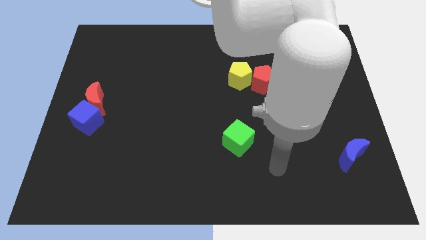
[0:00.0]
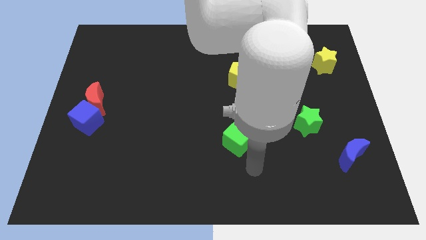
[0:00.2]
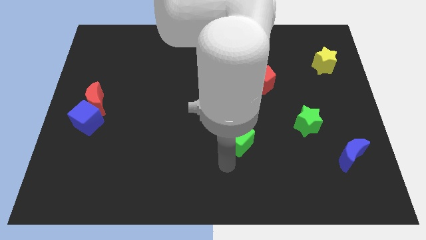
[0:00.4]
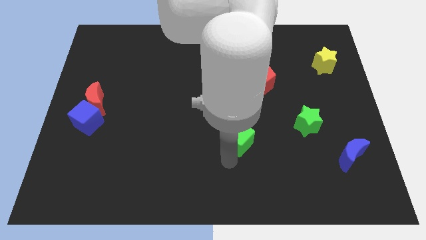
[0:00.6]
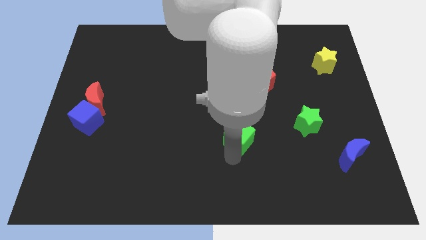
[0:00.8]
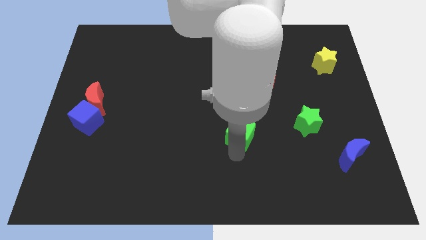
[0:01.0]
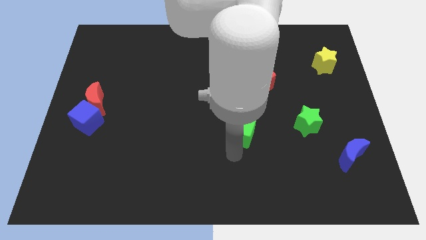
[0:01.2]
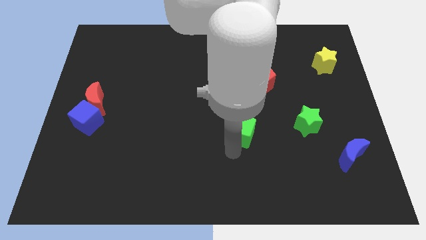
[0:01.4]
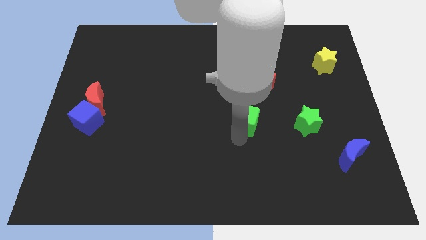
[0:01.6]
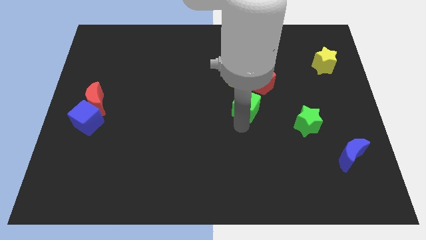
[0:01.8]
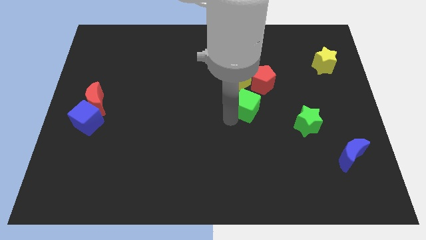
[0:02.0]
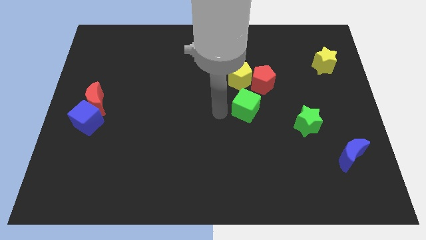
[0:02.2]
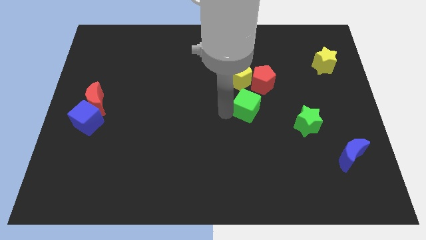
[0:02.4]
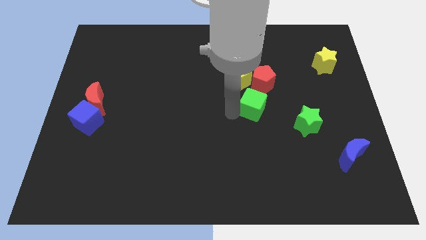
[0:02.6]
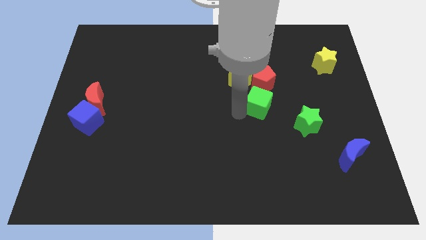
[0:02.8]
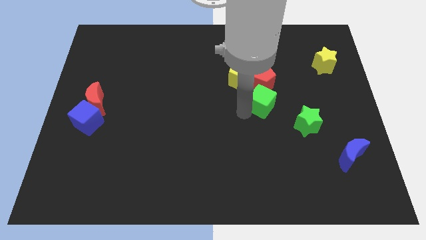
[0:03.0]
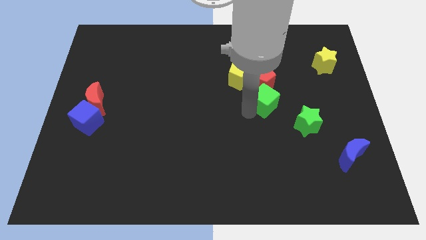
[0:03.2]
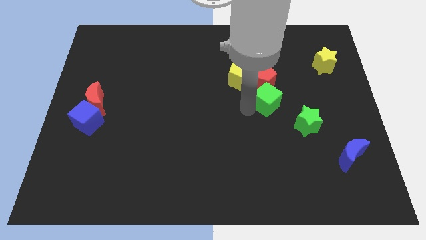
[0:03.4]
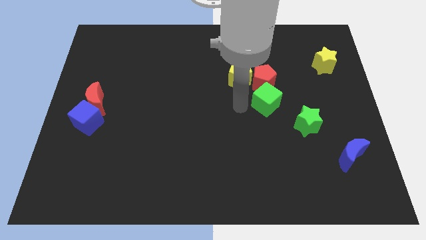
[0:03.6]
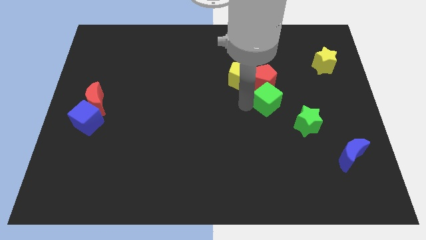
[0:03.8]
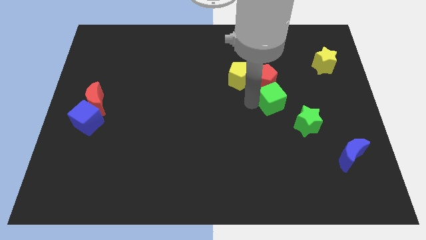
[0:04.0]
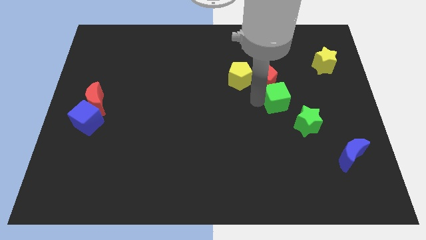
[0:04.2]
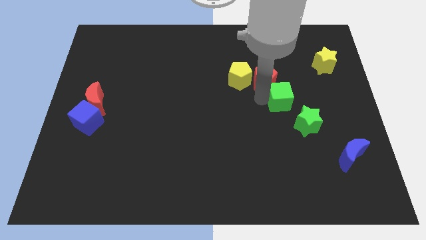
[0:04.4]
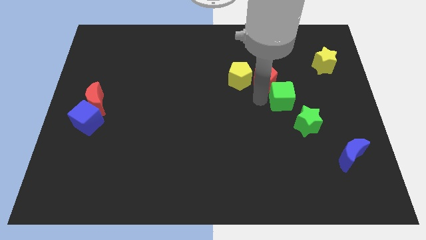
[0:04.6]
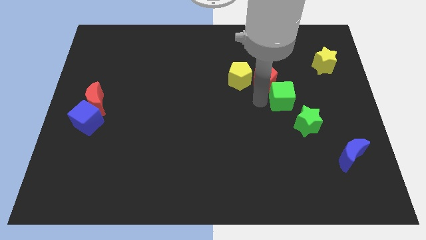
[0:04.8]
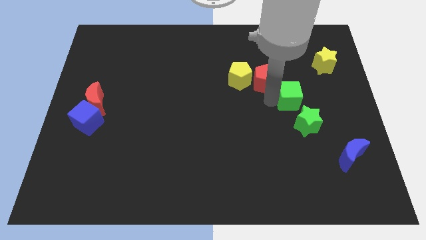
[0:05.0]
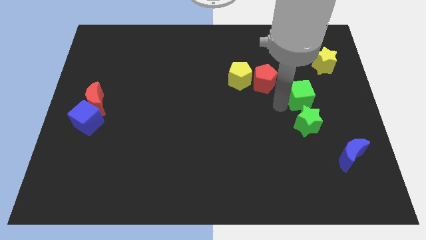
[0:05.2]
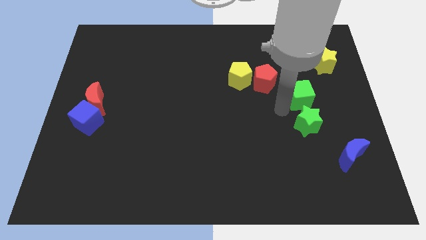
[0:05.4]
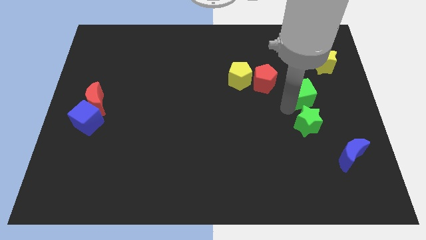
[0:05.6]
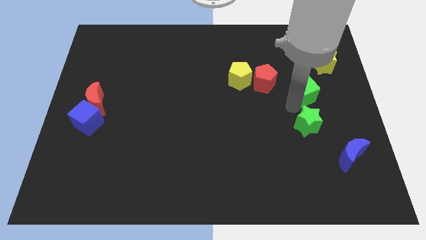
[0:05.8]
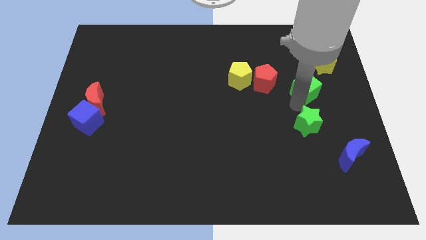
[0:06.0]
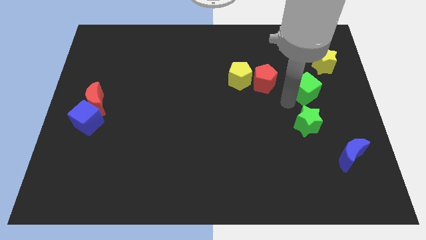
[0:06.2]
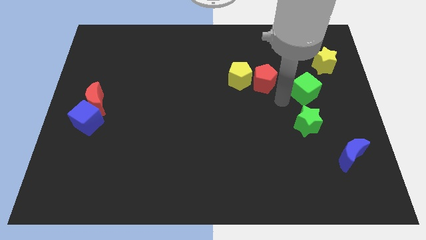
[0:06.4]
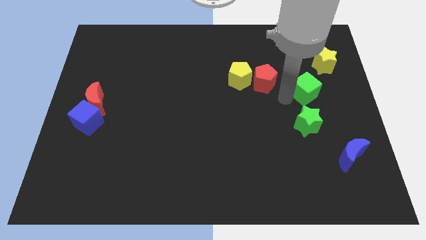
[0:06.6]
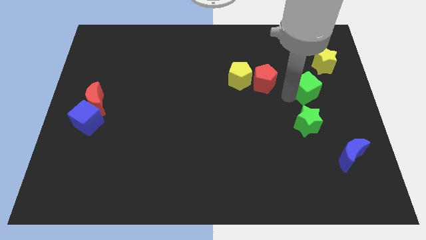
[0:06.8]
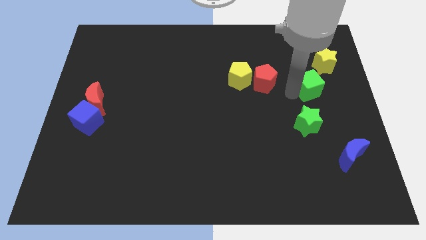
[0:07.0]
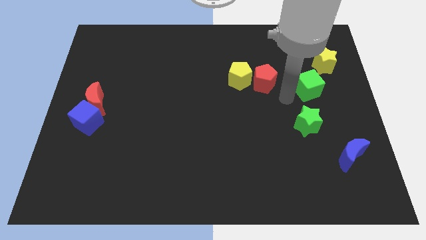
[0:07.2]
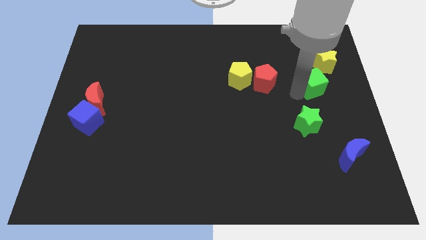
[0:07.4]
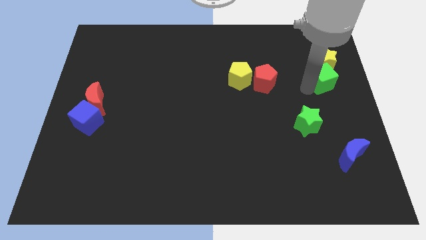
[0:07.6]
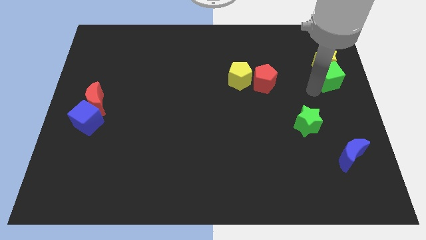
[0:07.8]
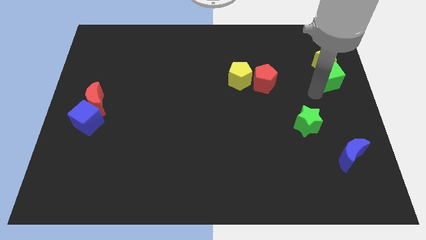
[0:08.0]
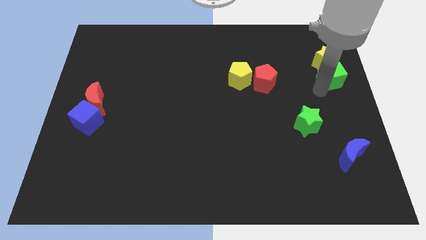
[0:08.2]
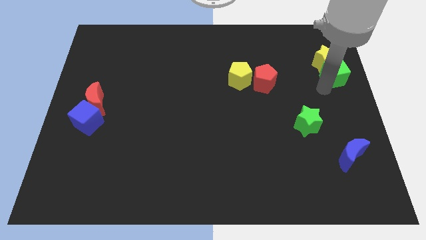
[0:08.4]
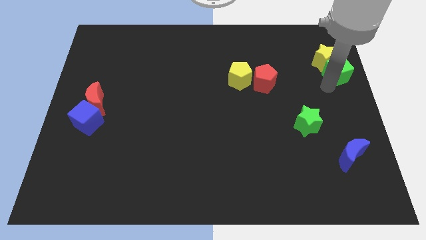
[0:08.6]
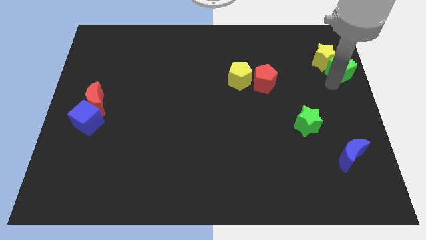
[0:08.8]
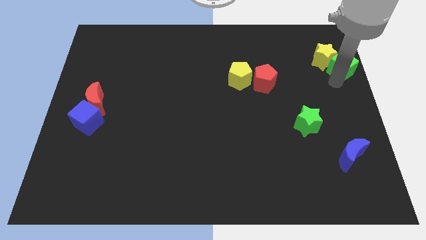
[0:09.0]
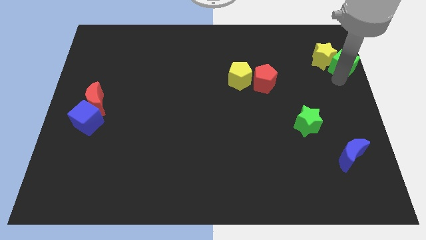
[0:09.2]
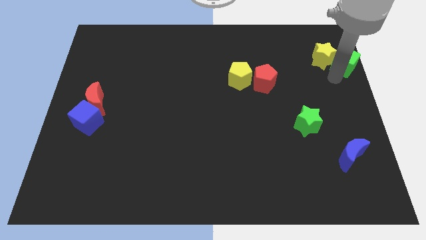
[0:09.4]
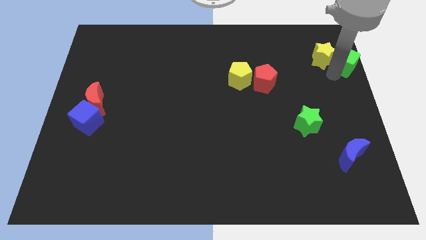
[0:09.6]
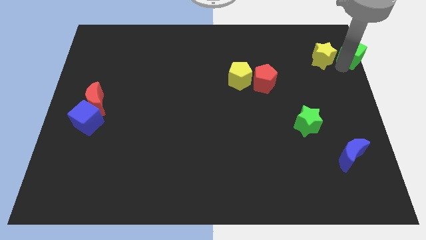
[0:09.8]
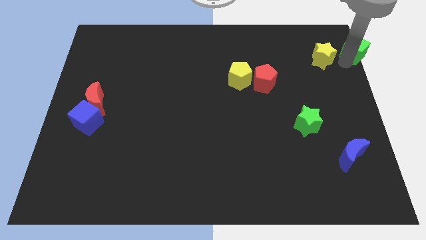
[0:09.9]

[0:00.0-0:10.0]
slide the green cube to the top right corner

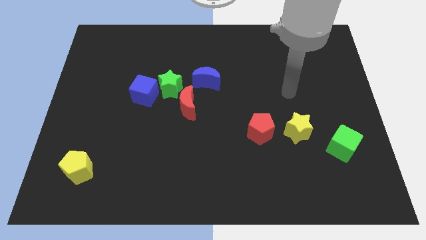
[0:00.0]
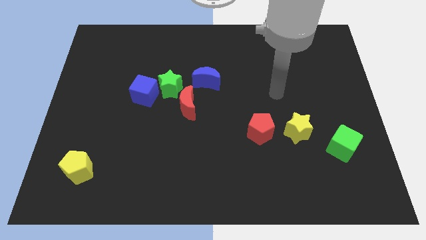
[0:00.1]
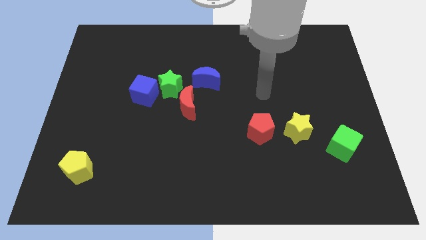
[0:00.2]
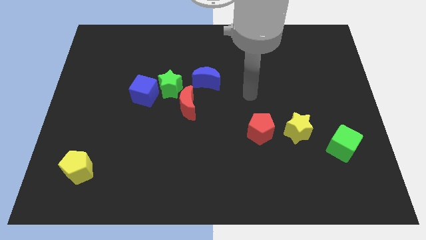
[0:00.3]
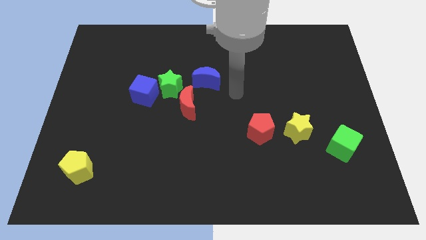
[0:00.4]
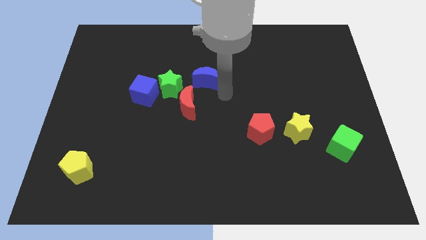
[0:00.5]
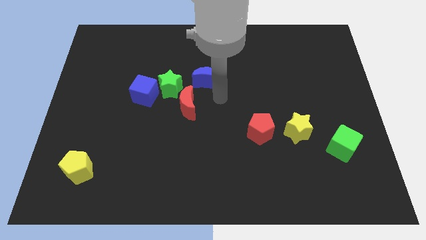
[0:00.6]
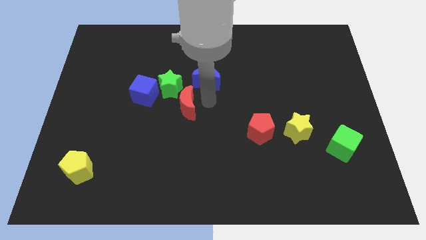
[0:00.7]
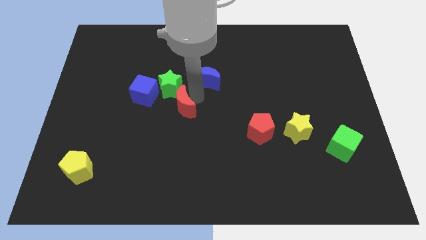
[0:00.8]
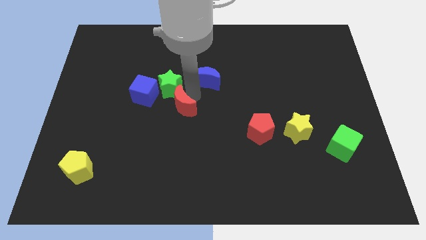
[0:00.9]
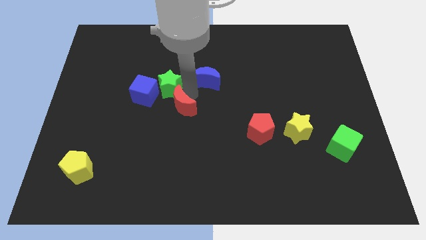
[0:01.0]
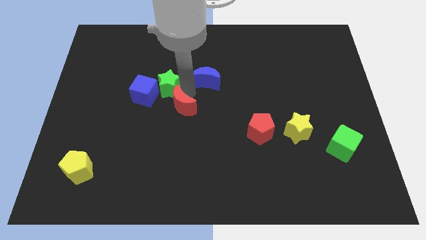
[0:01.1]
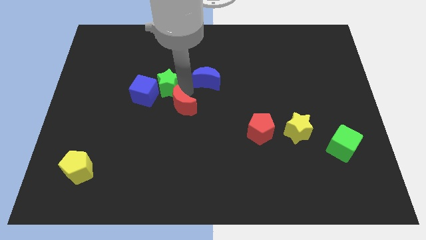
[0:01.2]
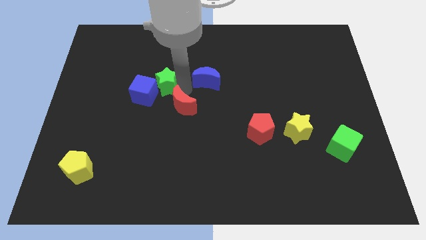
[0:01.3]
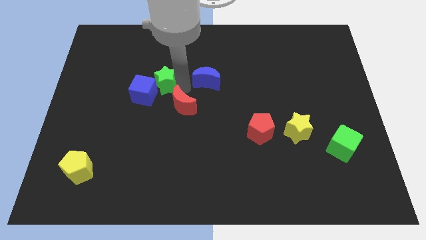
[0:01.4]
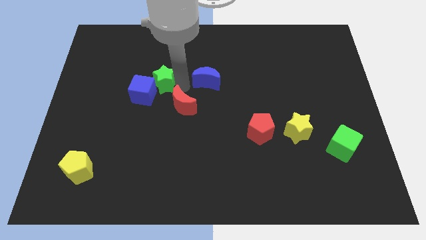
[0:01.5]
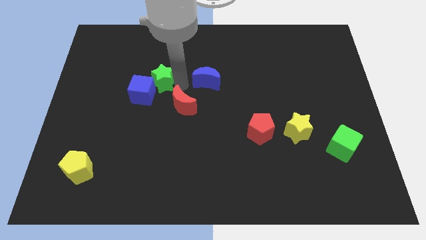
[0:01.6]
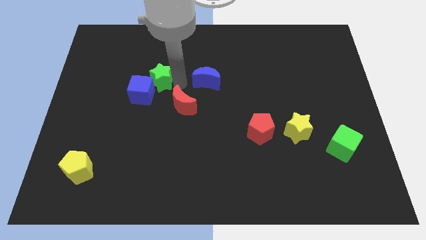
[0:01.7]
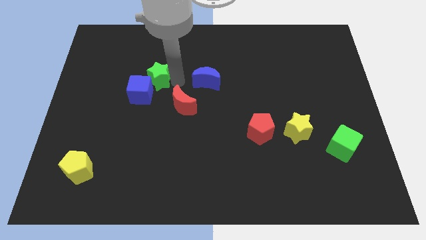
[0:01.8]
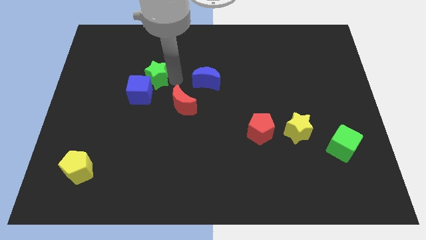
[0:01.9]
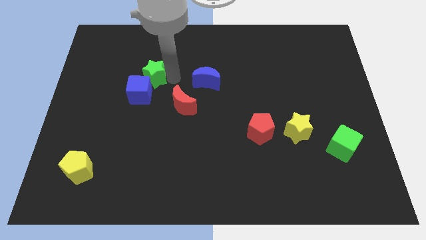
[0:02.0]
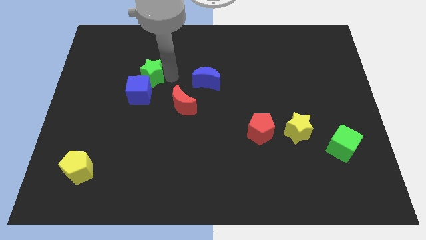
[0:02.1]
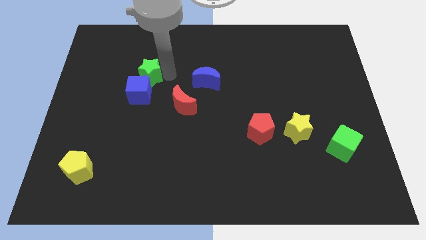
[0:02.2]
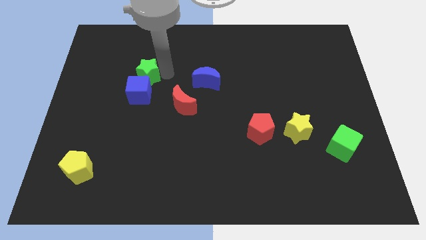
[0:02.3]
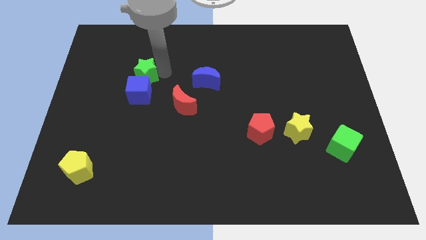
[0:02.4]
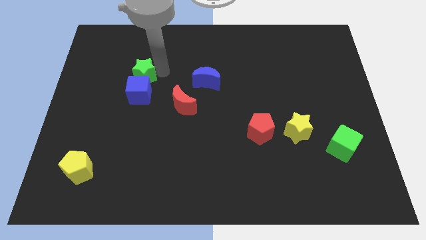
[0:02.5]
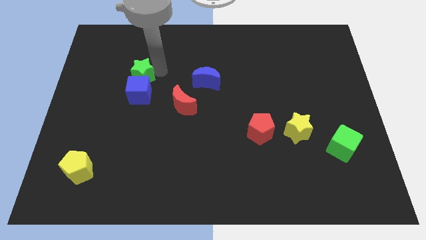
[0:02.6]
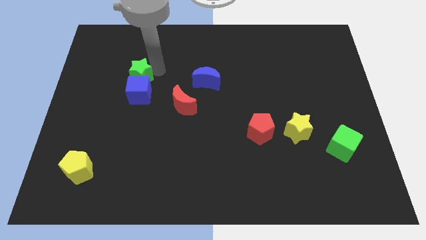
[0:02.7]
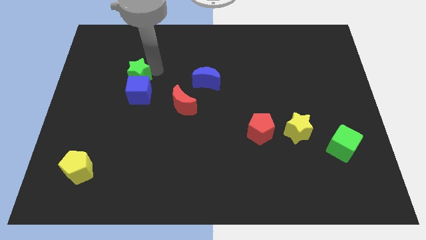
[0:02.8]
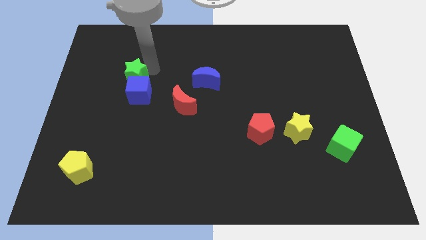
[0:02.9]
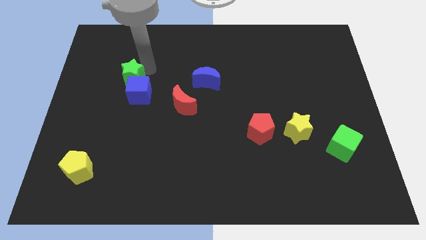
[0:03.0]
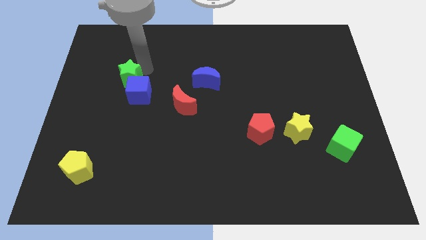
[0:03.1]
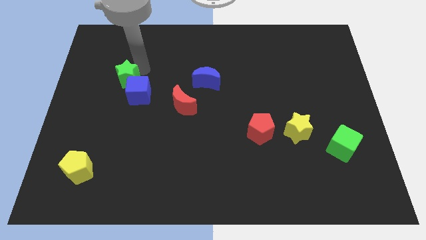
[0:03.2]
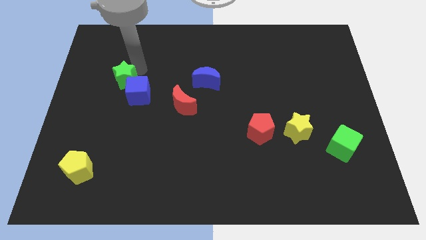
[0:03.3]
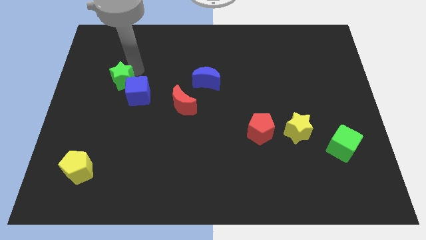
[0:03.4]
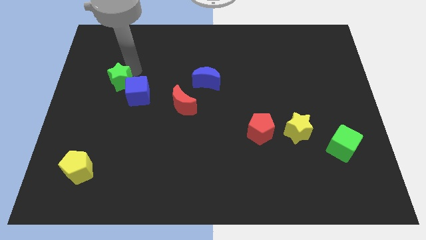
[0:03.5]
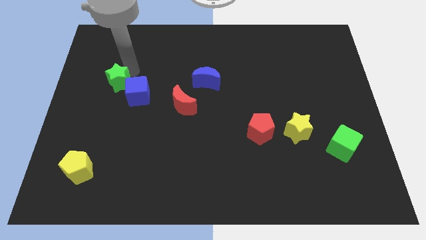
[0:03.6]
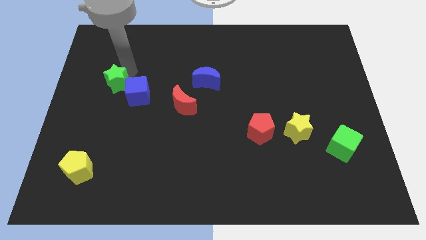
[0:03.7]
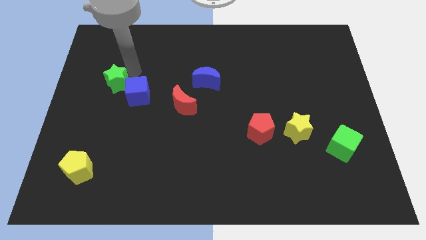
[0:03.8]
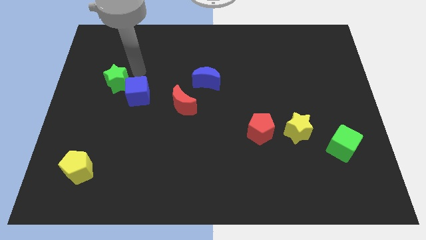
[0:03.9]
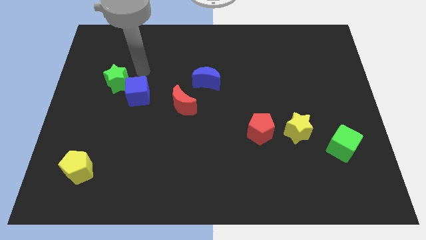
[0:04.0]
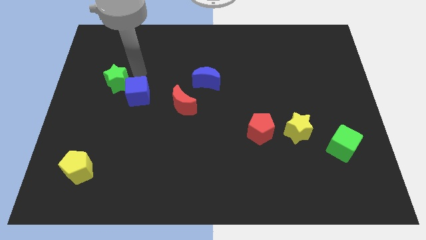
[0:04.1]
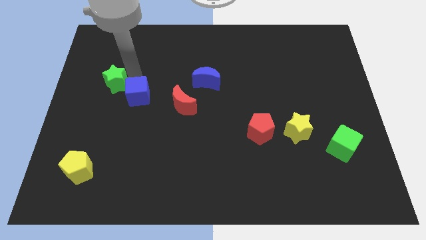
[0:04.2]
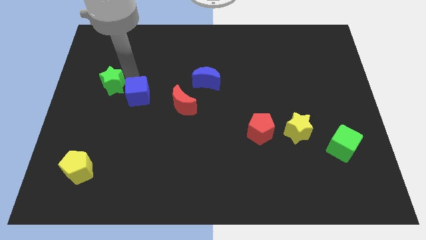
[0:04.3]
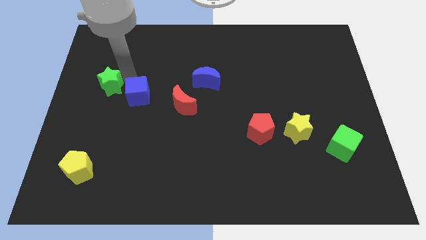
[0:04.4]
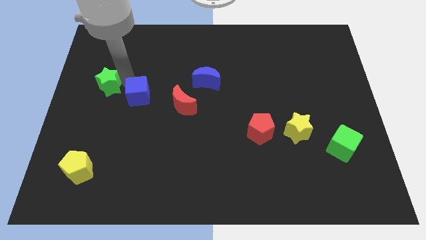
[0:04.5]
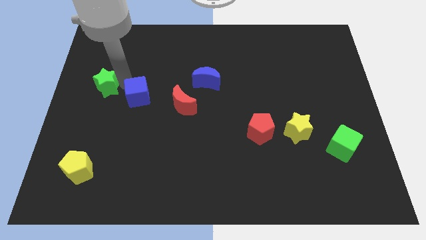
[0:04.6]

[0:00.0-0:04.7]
put the green star to the left side
